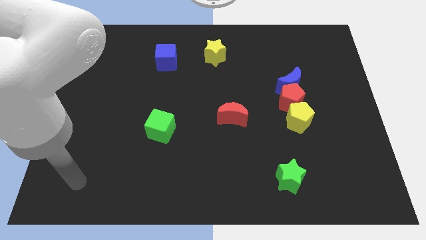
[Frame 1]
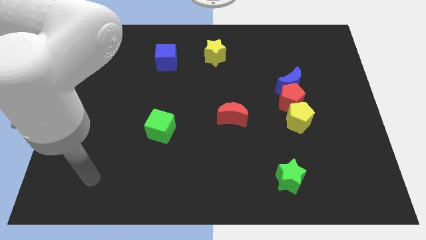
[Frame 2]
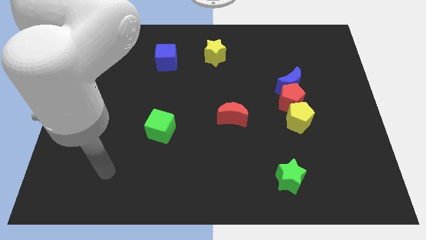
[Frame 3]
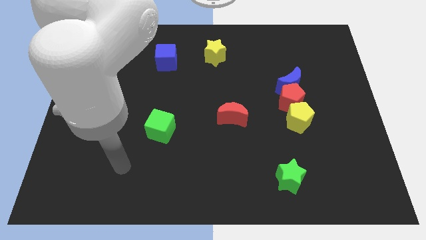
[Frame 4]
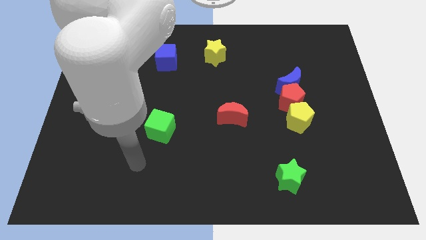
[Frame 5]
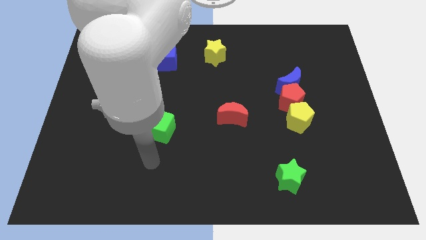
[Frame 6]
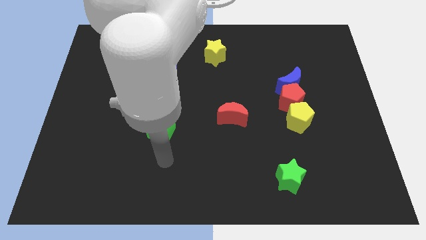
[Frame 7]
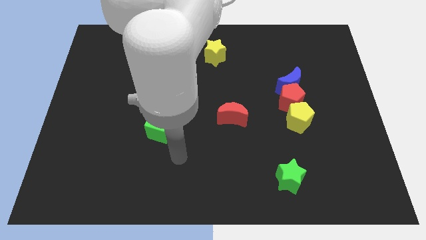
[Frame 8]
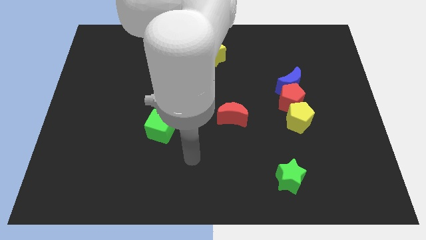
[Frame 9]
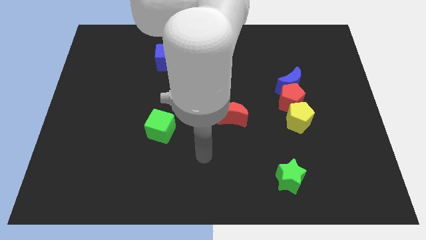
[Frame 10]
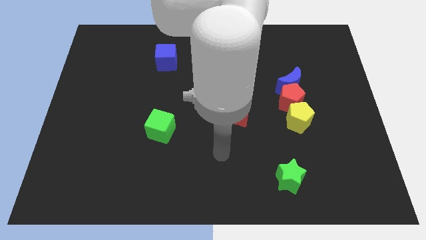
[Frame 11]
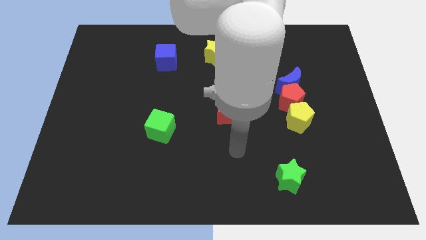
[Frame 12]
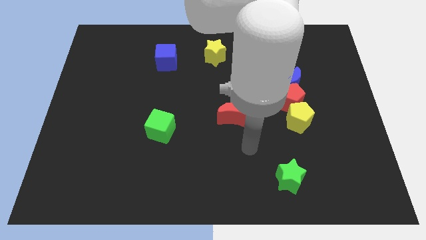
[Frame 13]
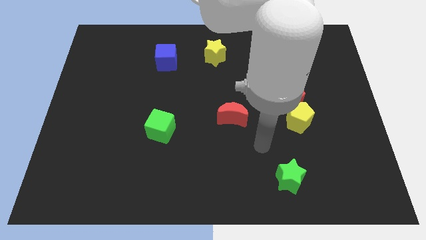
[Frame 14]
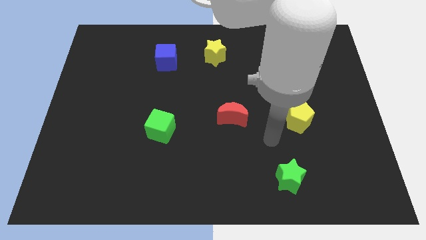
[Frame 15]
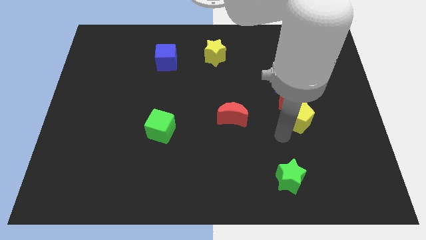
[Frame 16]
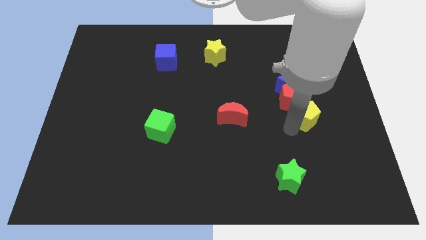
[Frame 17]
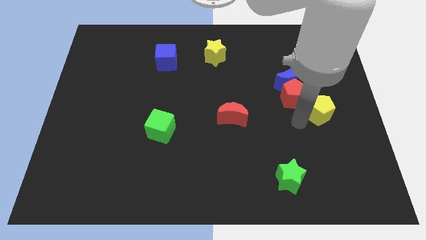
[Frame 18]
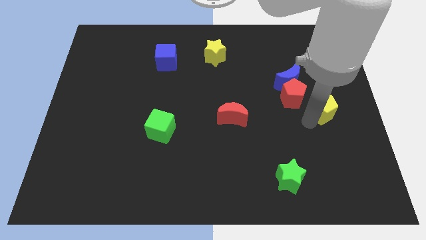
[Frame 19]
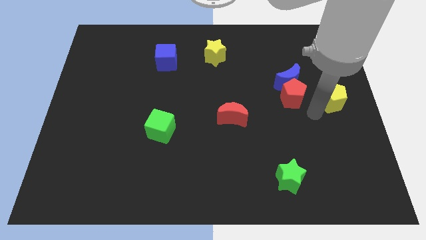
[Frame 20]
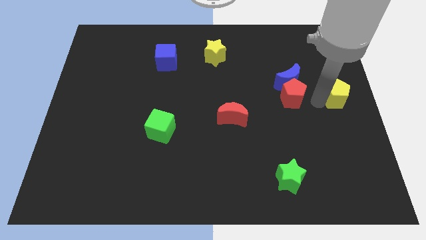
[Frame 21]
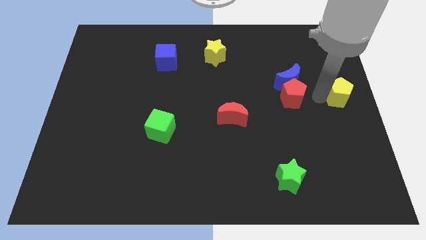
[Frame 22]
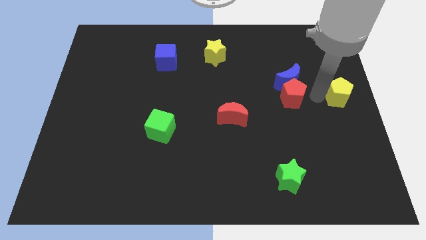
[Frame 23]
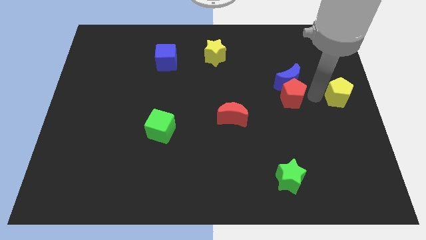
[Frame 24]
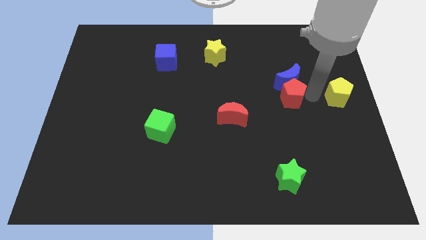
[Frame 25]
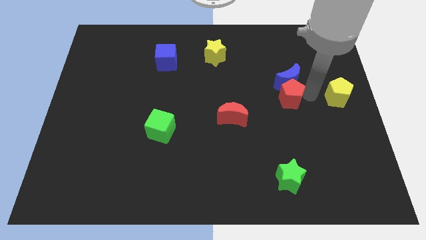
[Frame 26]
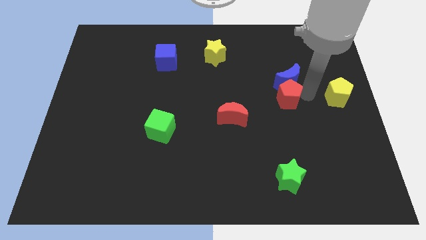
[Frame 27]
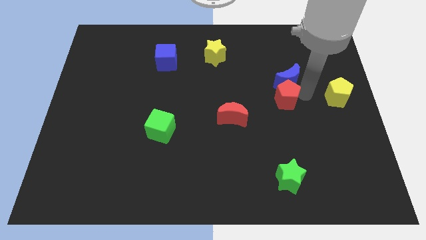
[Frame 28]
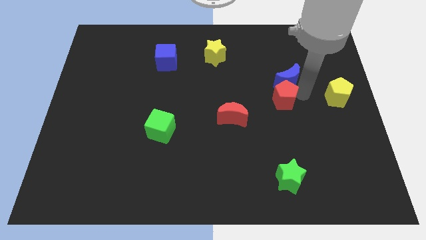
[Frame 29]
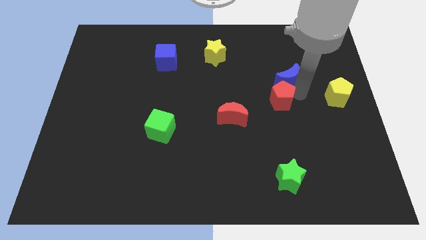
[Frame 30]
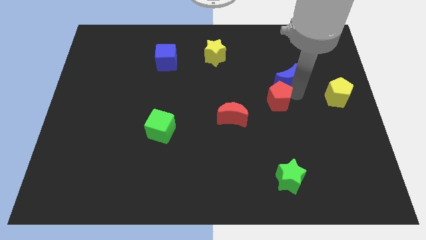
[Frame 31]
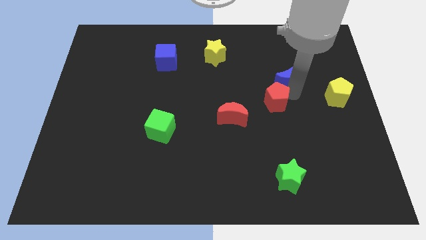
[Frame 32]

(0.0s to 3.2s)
separate the red pentagon from the blue moon and yellow pentagon

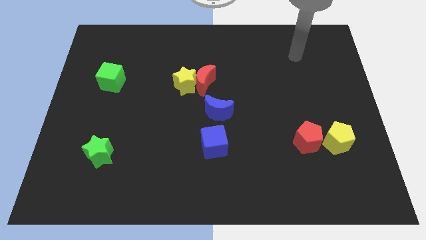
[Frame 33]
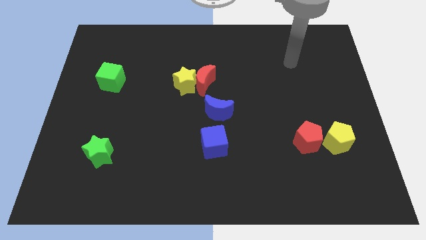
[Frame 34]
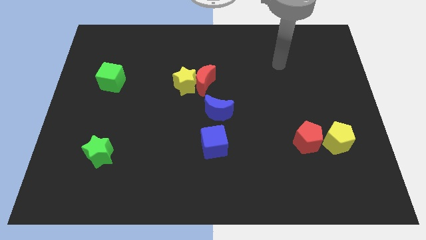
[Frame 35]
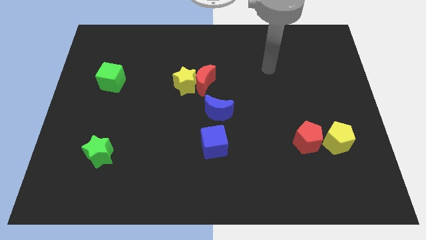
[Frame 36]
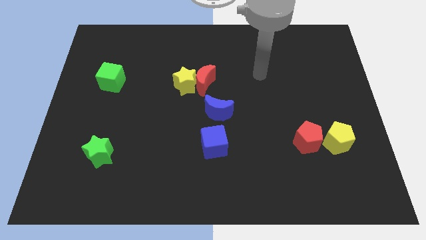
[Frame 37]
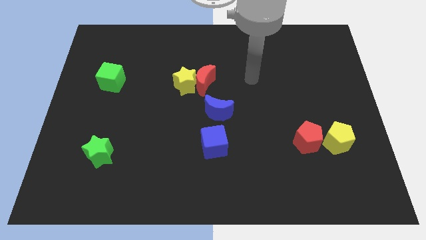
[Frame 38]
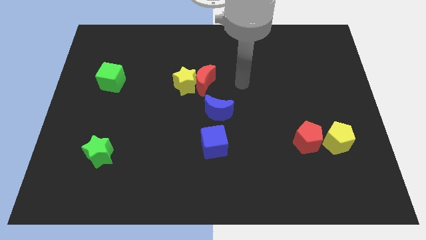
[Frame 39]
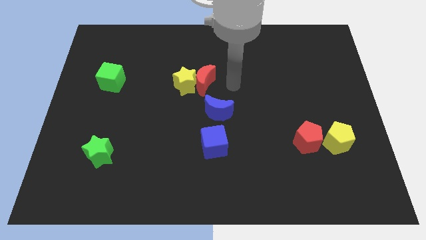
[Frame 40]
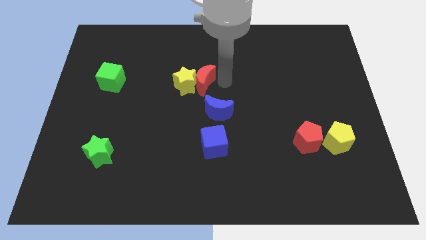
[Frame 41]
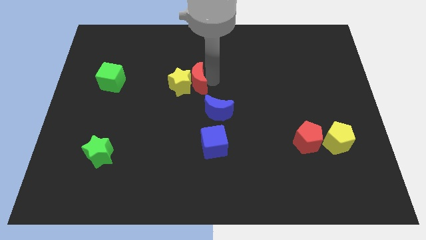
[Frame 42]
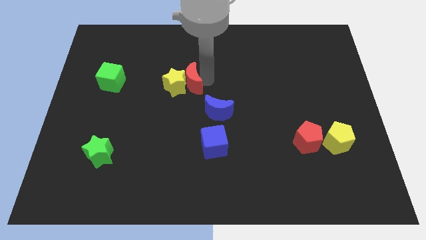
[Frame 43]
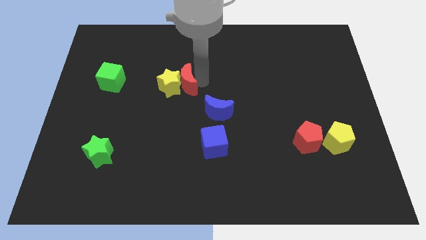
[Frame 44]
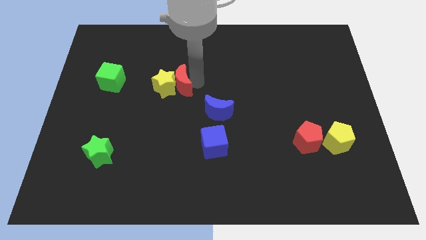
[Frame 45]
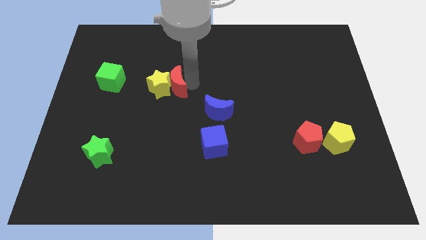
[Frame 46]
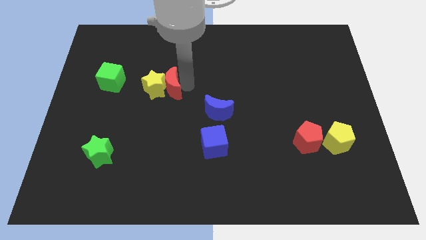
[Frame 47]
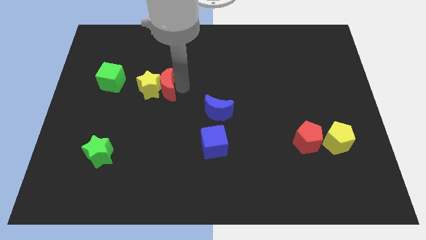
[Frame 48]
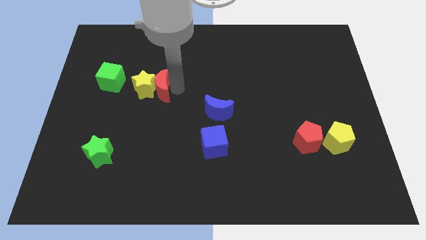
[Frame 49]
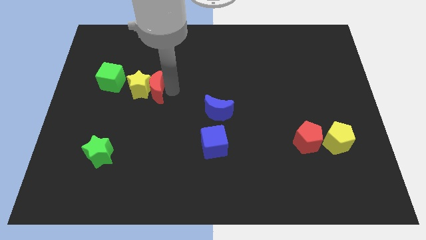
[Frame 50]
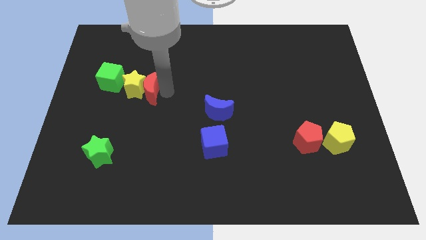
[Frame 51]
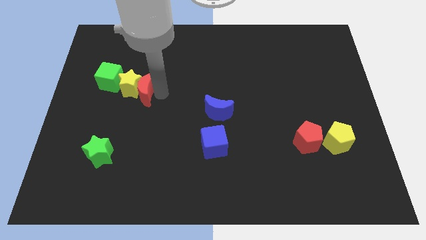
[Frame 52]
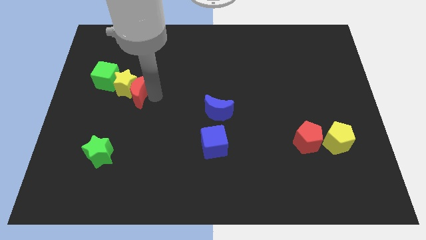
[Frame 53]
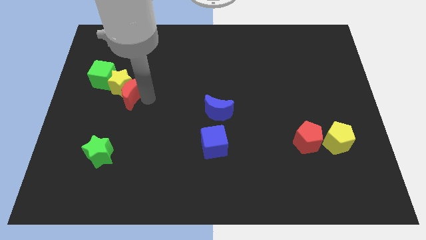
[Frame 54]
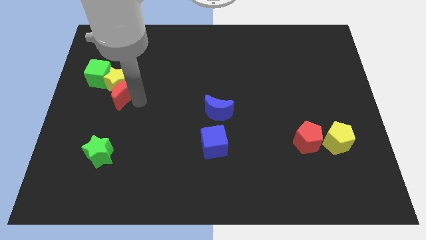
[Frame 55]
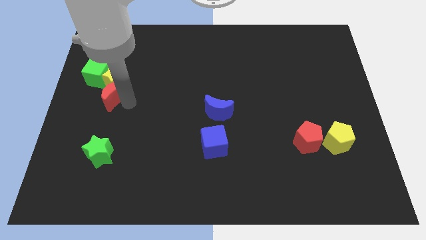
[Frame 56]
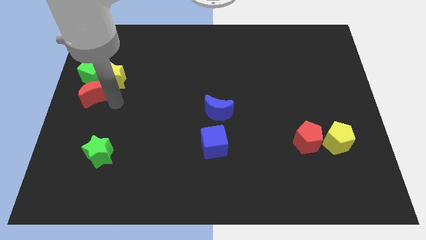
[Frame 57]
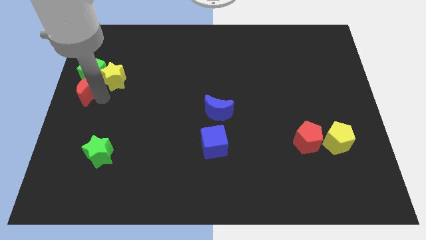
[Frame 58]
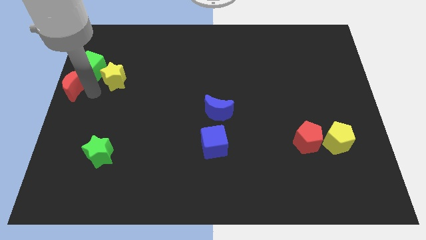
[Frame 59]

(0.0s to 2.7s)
move the yellow star away from the red moon

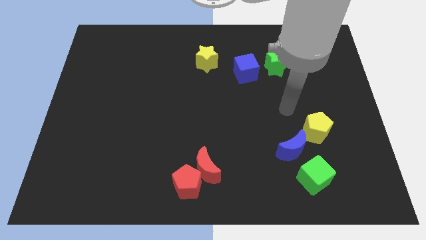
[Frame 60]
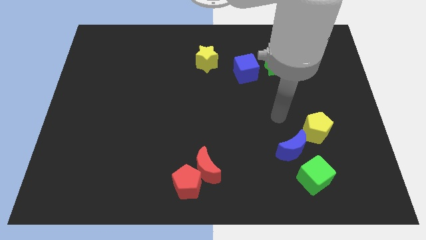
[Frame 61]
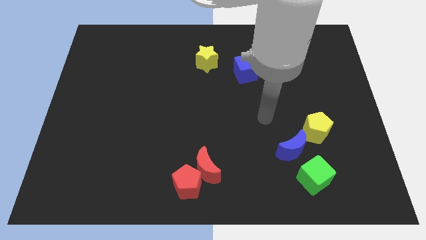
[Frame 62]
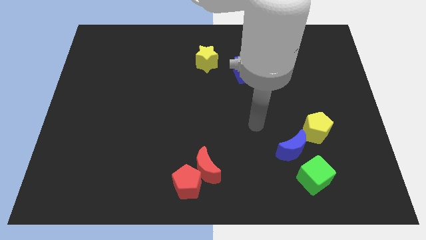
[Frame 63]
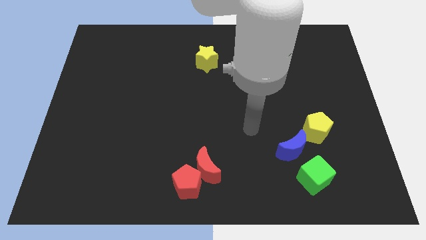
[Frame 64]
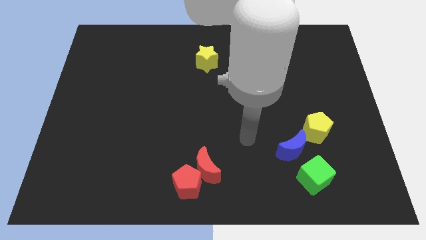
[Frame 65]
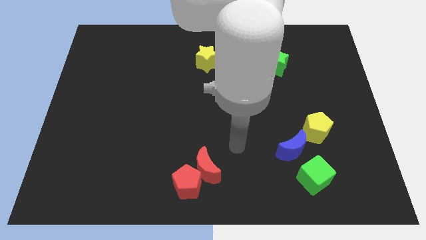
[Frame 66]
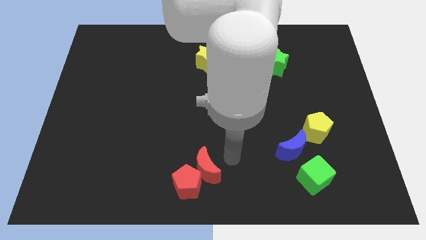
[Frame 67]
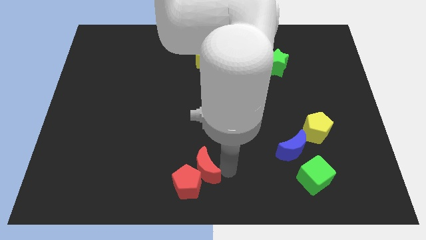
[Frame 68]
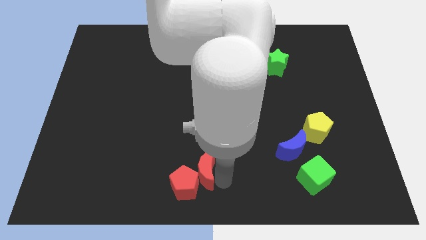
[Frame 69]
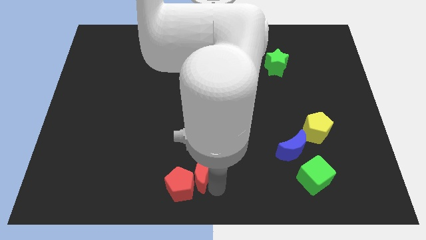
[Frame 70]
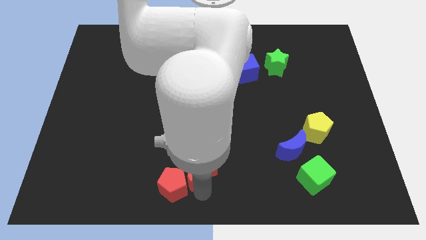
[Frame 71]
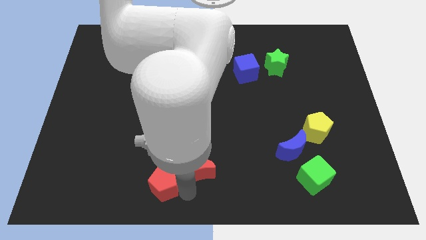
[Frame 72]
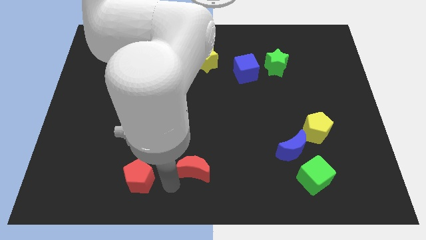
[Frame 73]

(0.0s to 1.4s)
separate the red moon from the red pentagon

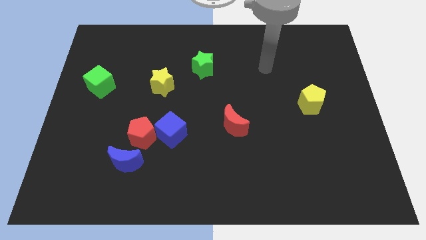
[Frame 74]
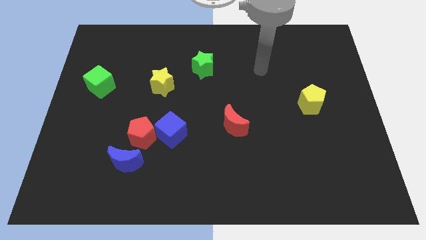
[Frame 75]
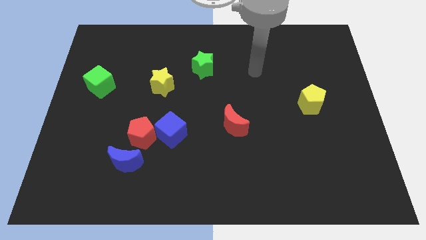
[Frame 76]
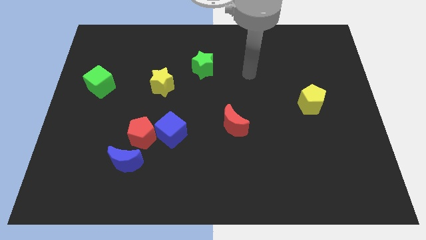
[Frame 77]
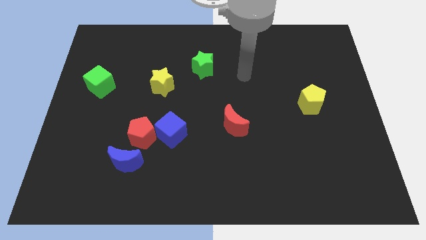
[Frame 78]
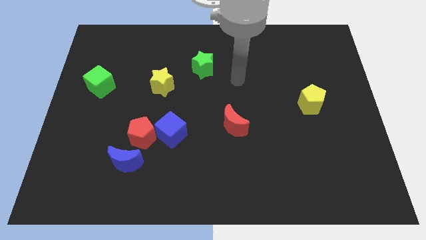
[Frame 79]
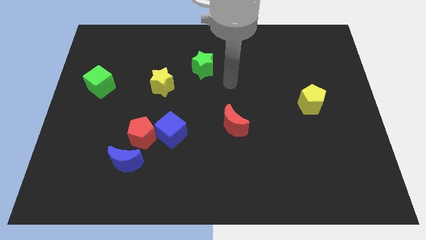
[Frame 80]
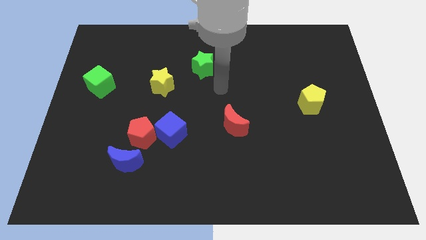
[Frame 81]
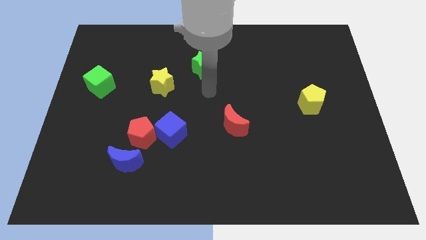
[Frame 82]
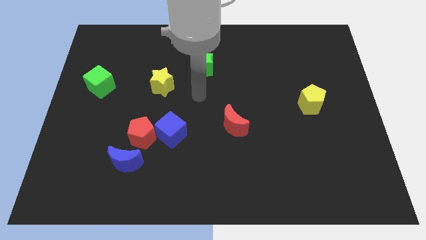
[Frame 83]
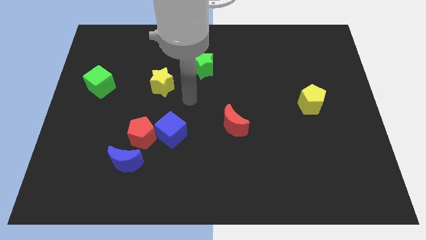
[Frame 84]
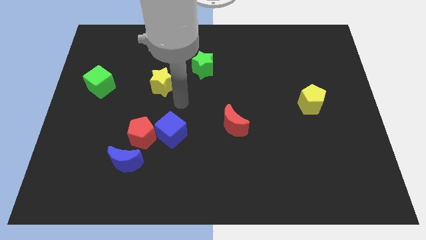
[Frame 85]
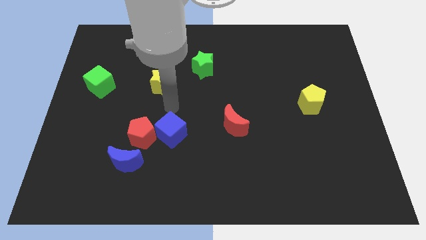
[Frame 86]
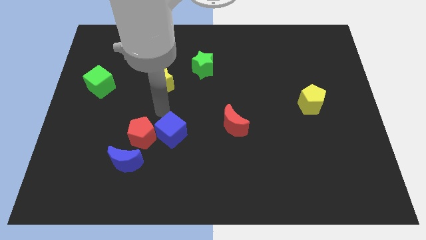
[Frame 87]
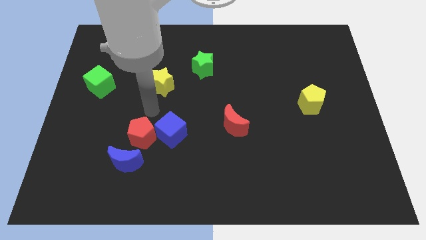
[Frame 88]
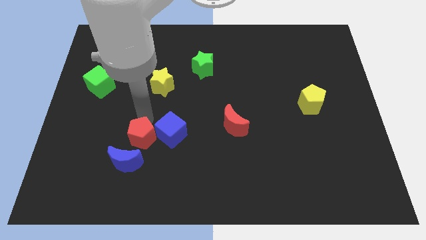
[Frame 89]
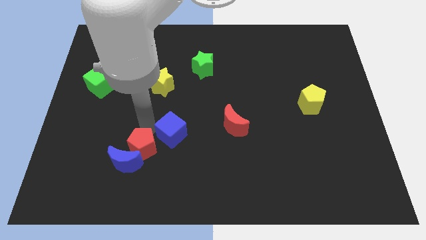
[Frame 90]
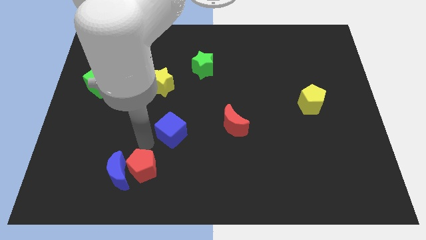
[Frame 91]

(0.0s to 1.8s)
separate the blue cube from the red pentagon

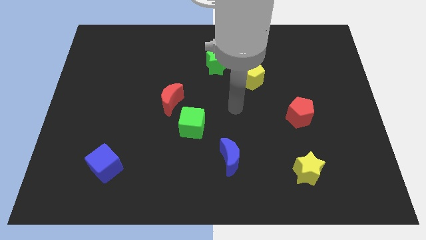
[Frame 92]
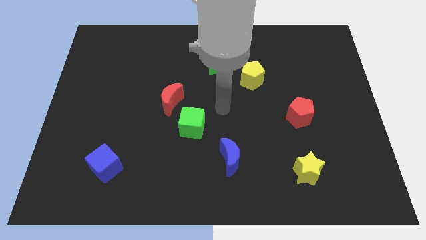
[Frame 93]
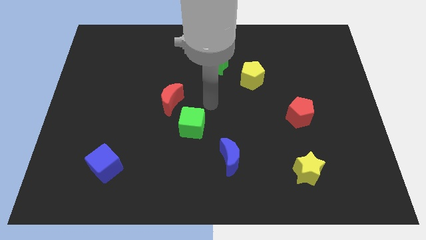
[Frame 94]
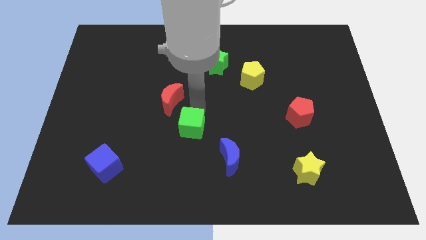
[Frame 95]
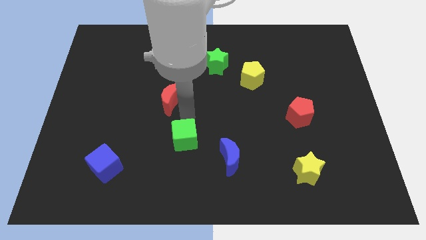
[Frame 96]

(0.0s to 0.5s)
separate the red moon from the green cube
